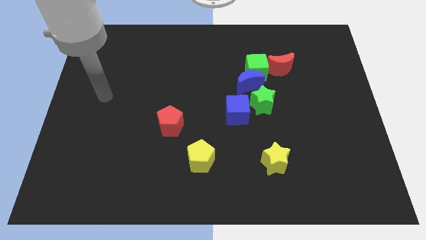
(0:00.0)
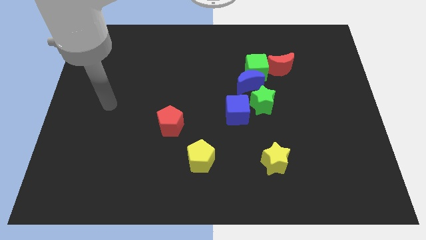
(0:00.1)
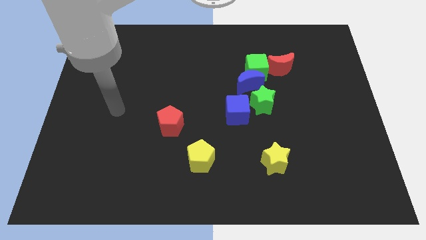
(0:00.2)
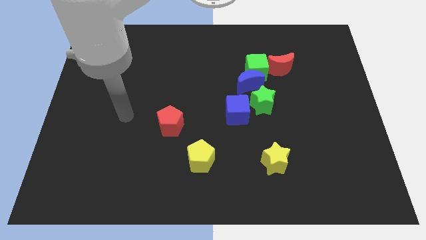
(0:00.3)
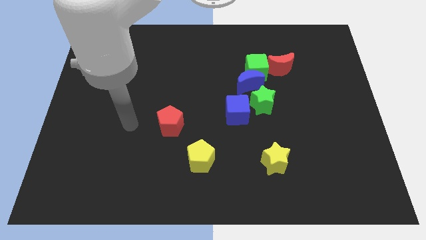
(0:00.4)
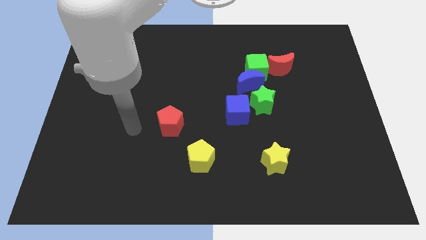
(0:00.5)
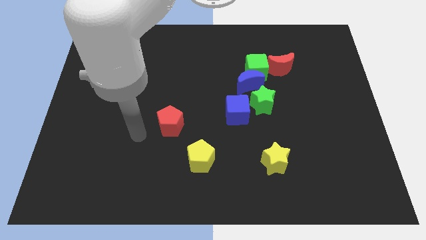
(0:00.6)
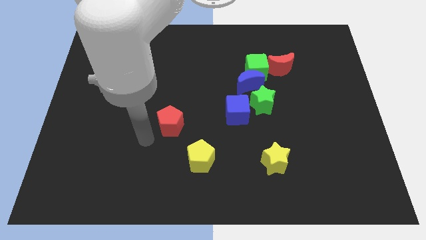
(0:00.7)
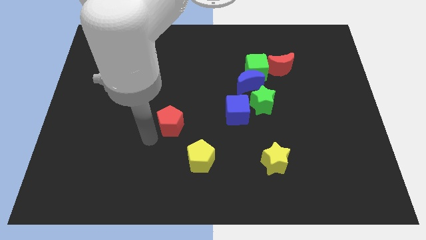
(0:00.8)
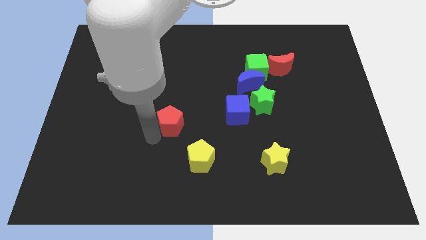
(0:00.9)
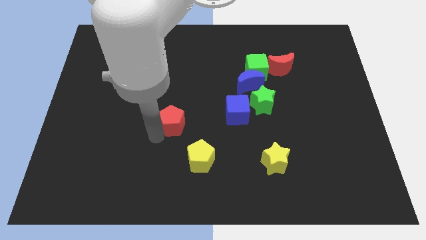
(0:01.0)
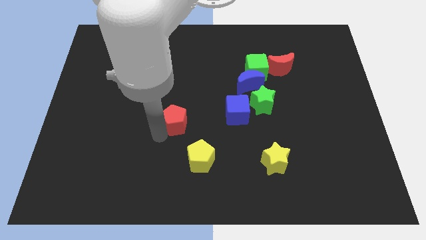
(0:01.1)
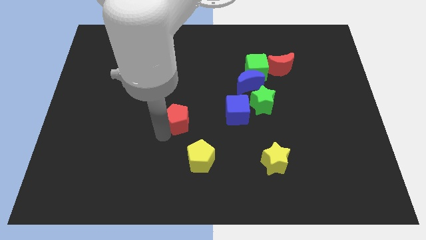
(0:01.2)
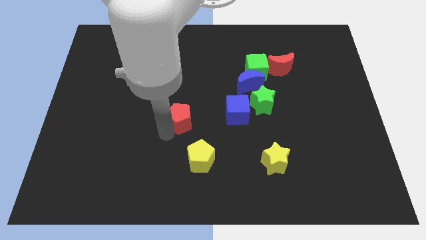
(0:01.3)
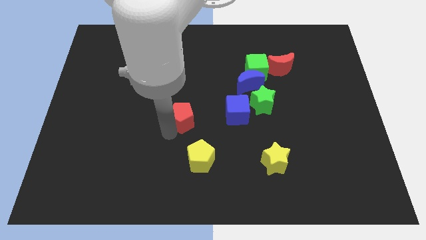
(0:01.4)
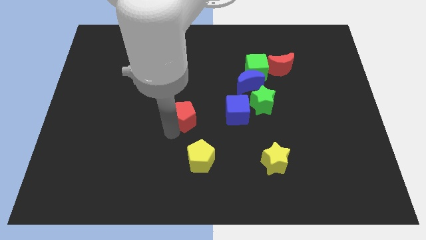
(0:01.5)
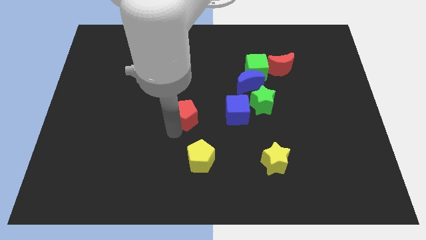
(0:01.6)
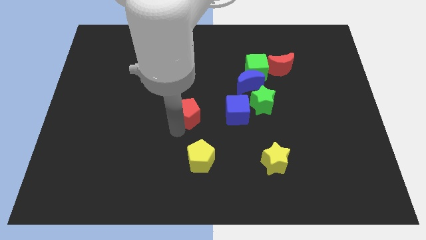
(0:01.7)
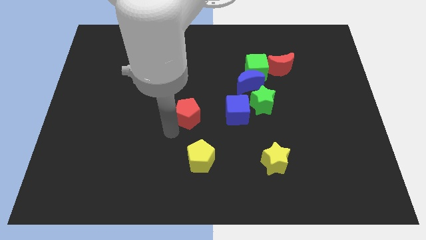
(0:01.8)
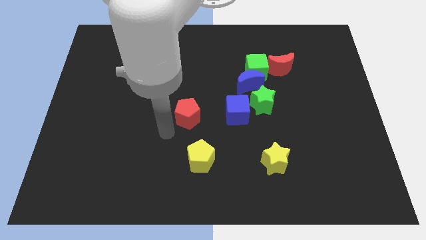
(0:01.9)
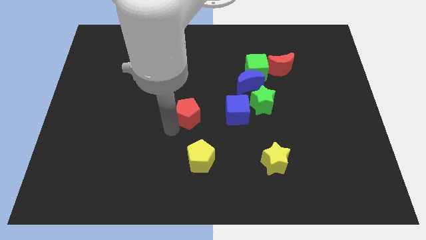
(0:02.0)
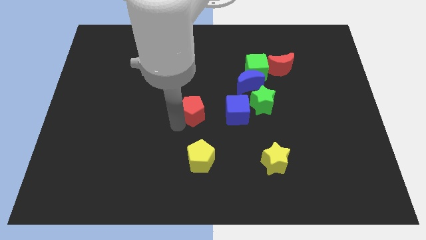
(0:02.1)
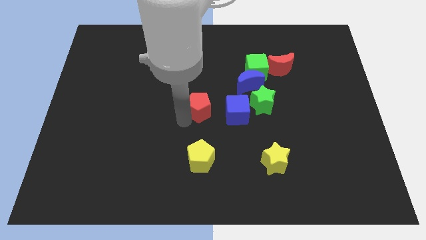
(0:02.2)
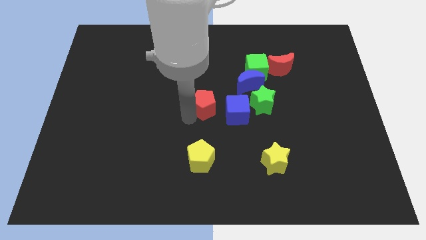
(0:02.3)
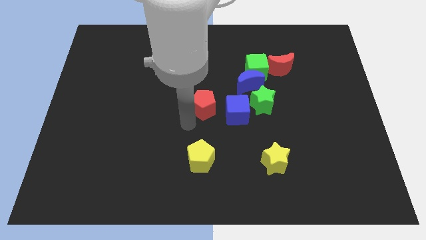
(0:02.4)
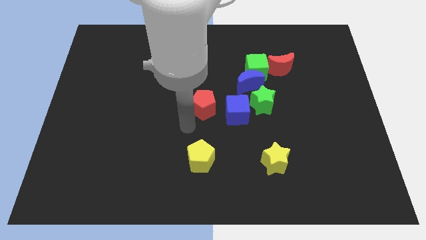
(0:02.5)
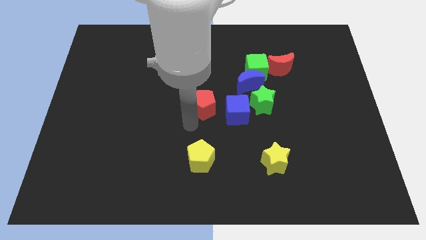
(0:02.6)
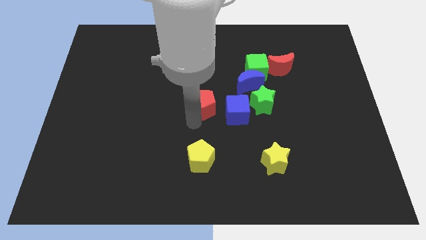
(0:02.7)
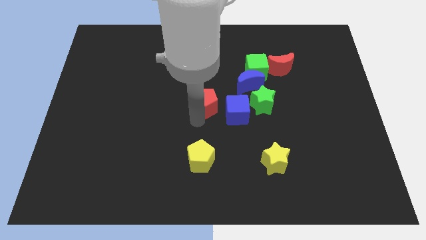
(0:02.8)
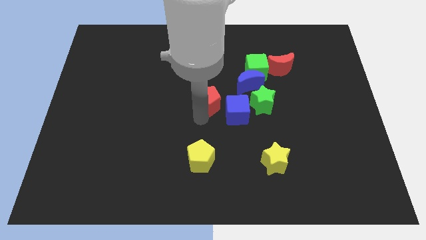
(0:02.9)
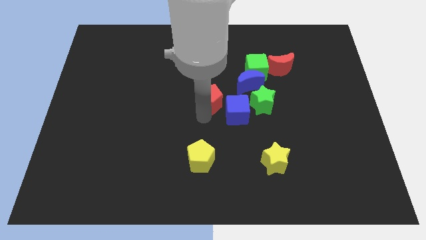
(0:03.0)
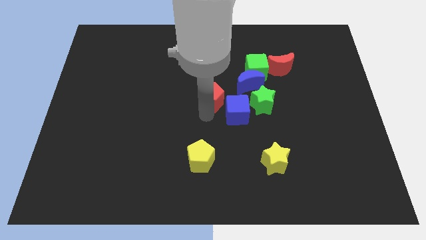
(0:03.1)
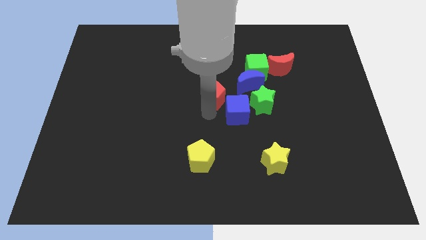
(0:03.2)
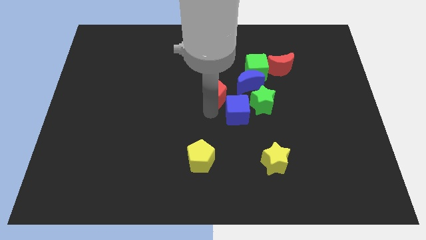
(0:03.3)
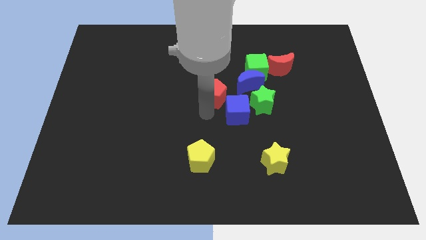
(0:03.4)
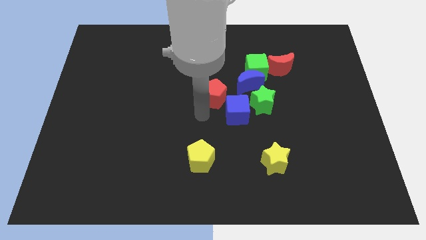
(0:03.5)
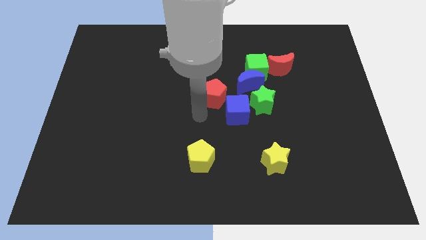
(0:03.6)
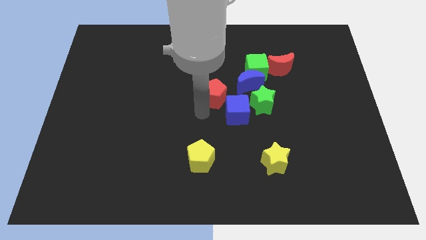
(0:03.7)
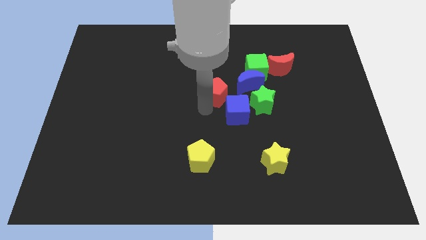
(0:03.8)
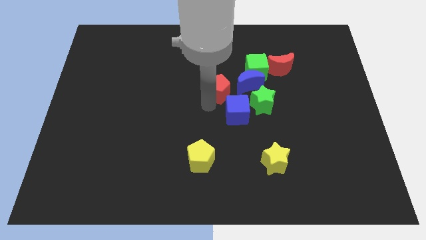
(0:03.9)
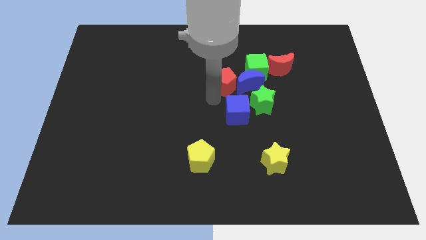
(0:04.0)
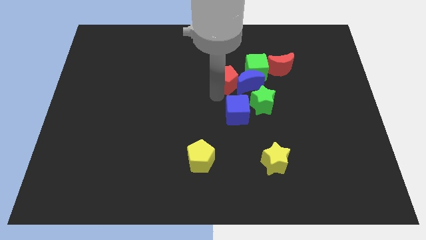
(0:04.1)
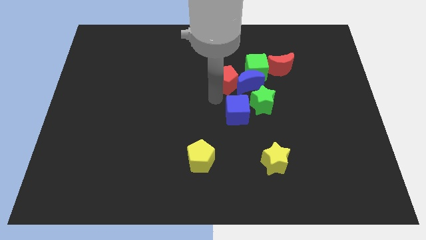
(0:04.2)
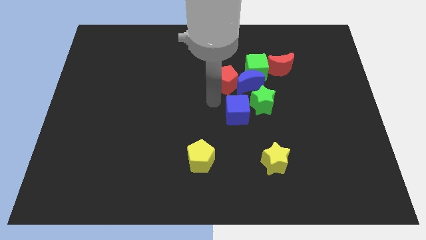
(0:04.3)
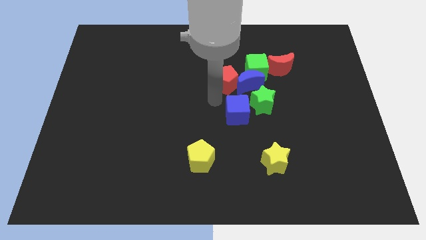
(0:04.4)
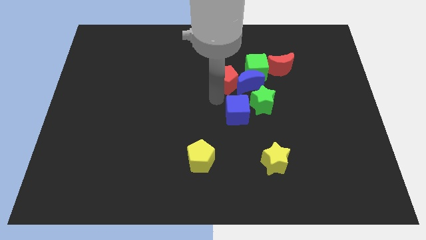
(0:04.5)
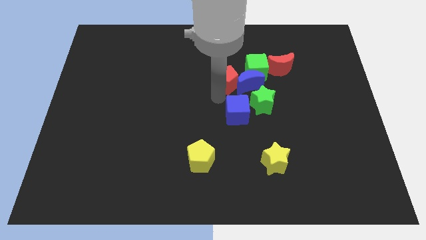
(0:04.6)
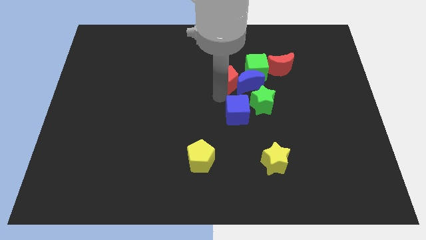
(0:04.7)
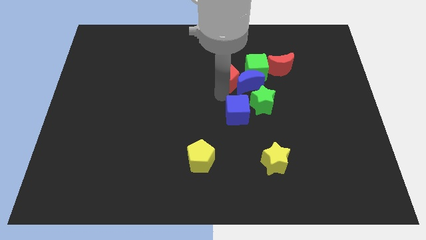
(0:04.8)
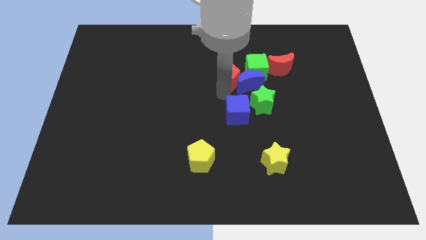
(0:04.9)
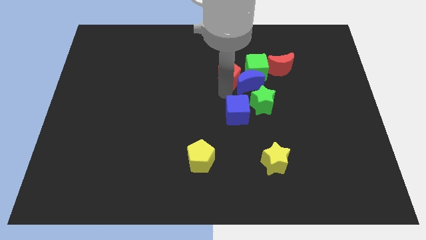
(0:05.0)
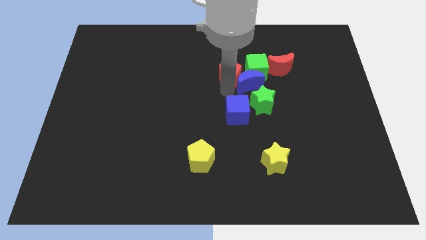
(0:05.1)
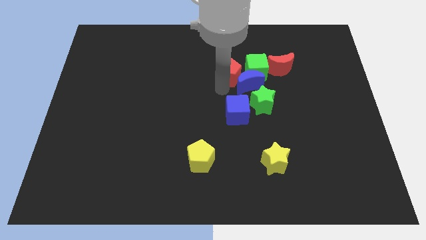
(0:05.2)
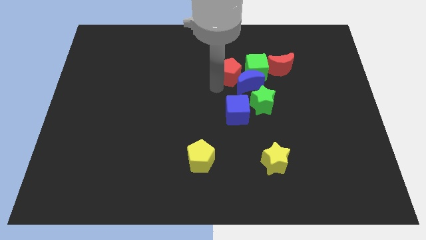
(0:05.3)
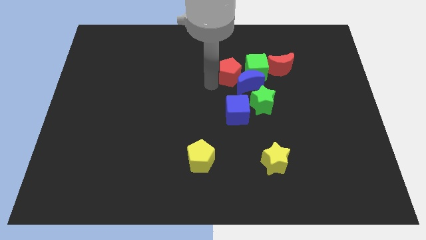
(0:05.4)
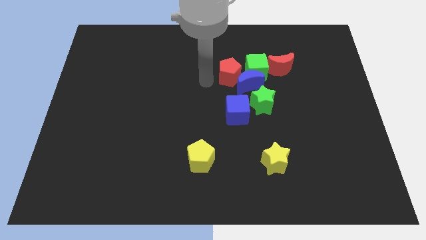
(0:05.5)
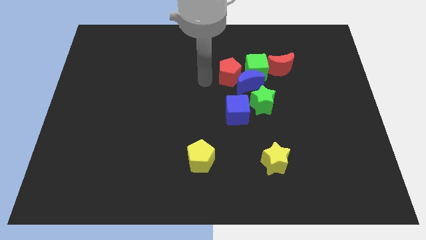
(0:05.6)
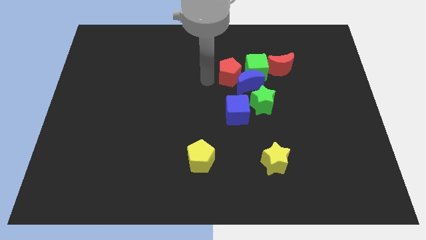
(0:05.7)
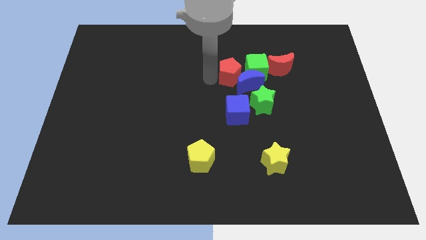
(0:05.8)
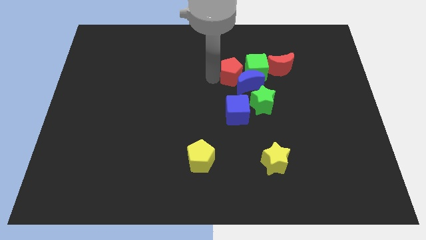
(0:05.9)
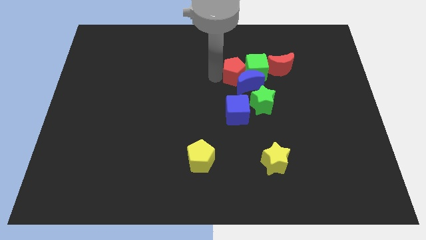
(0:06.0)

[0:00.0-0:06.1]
move the red pentagon to the green cube
